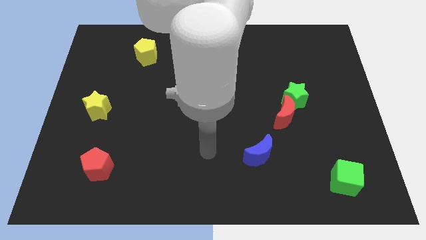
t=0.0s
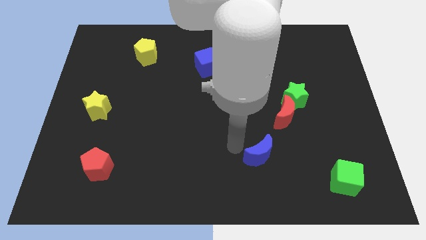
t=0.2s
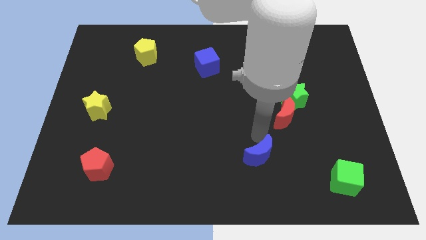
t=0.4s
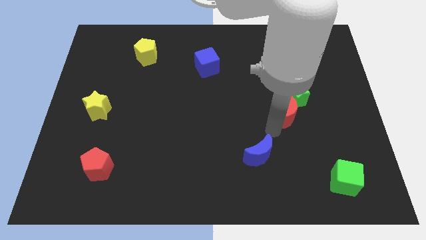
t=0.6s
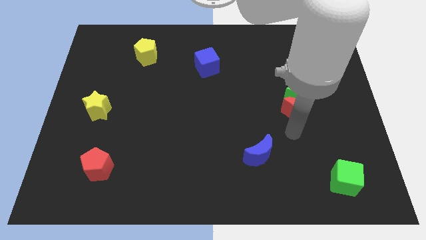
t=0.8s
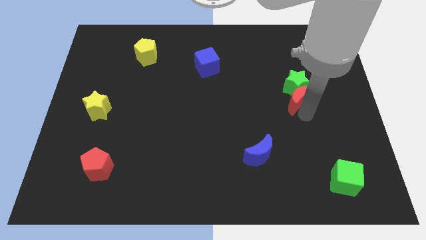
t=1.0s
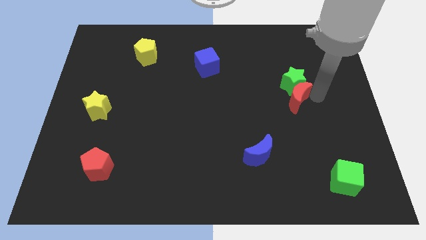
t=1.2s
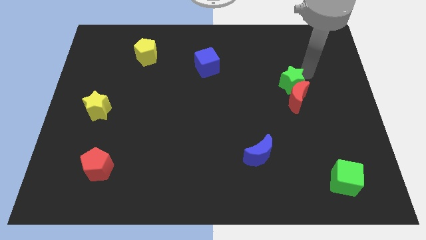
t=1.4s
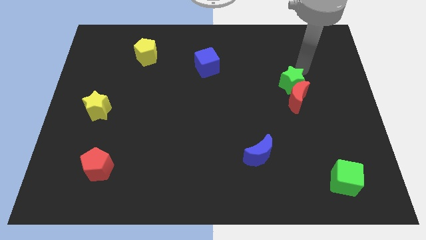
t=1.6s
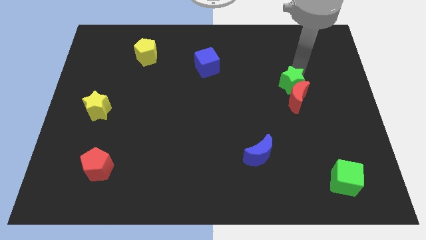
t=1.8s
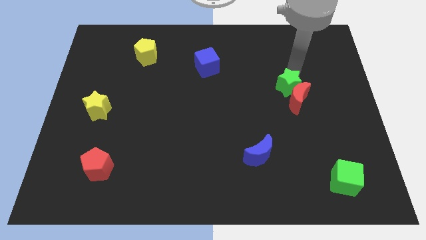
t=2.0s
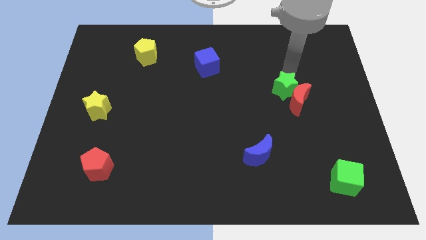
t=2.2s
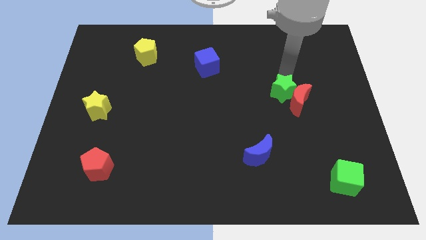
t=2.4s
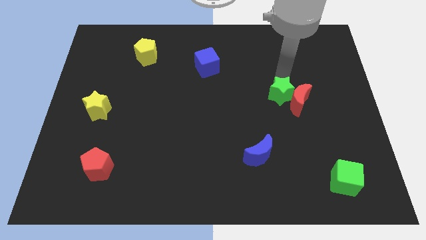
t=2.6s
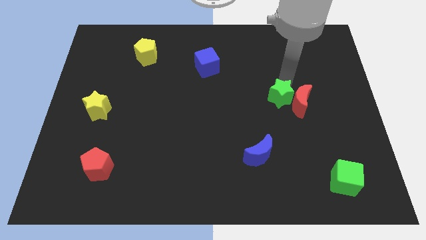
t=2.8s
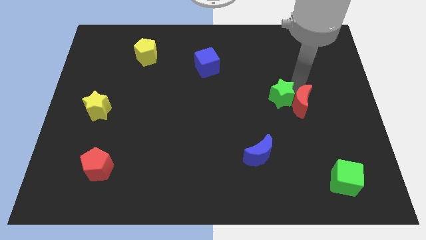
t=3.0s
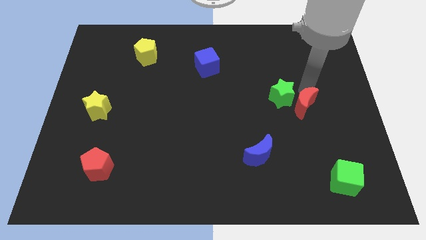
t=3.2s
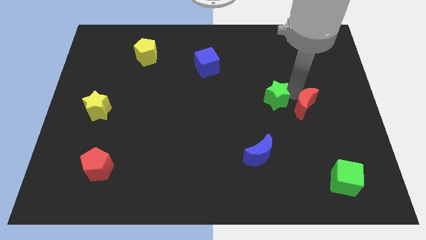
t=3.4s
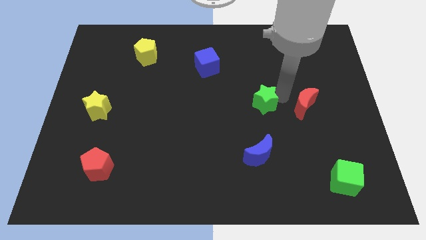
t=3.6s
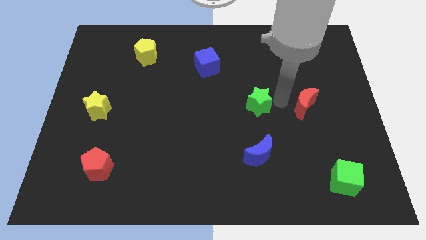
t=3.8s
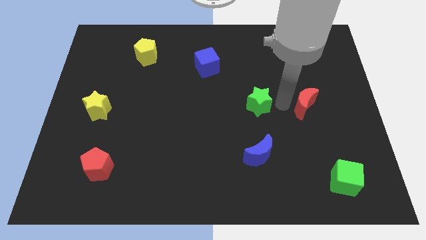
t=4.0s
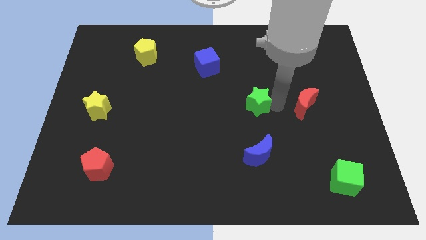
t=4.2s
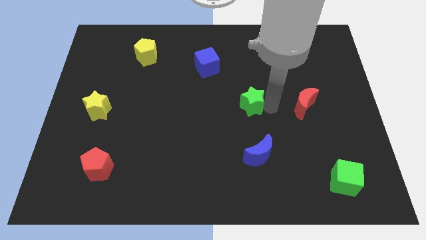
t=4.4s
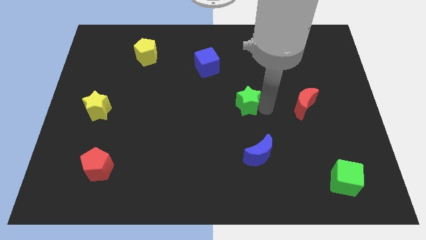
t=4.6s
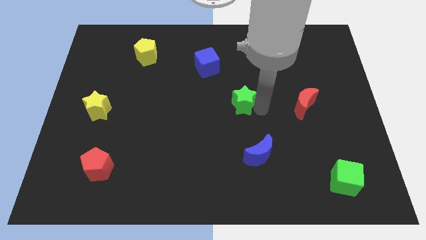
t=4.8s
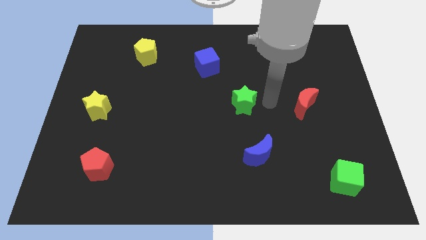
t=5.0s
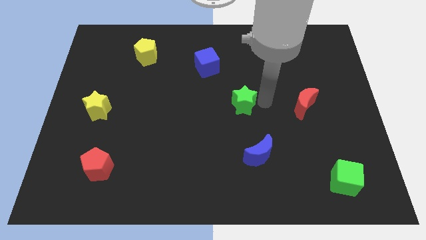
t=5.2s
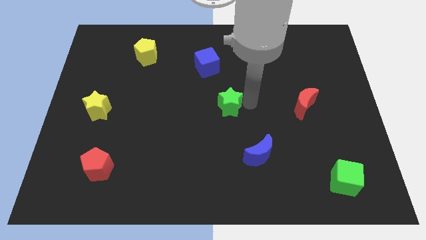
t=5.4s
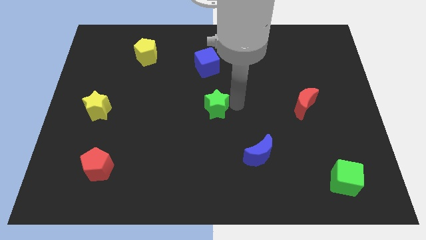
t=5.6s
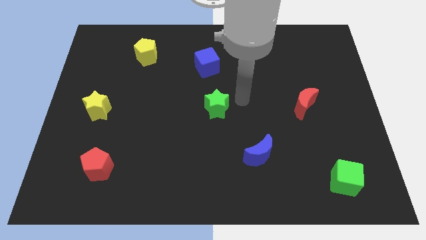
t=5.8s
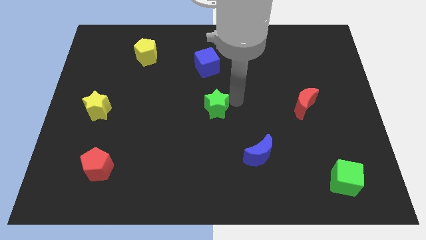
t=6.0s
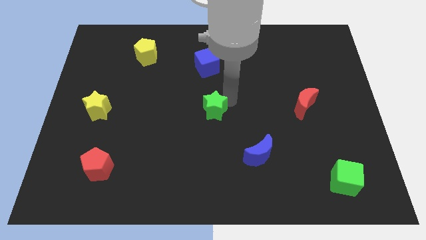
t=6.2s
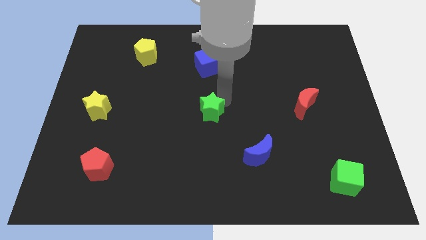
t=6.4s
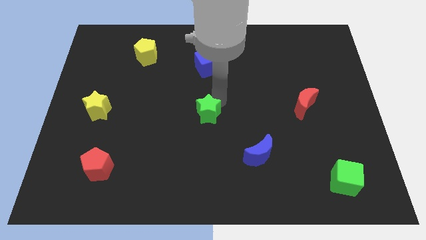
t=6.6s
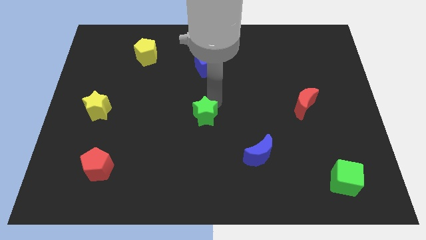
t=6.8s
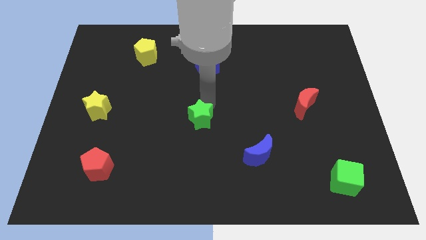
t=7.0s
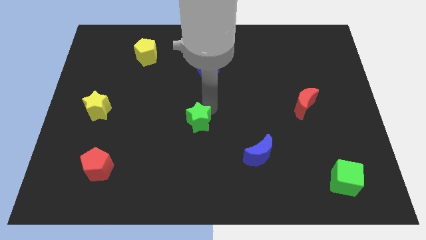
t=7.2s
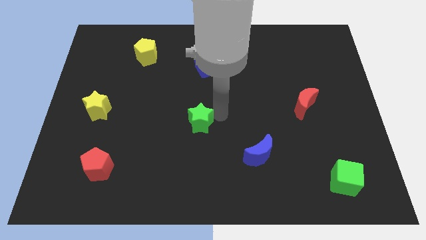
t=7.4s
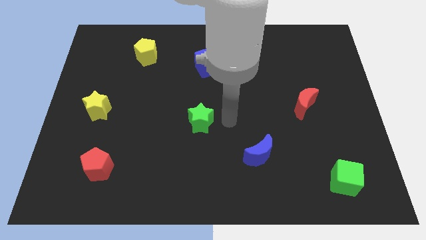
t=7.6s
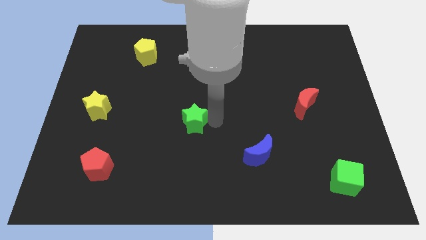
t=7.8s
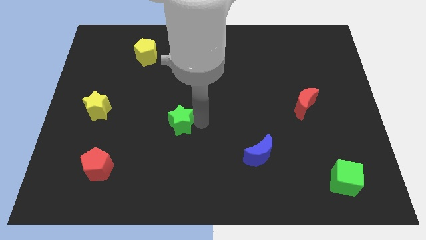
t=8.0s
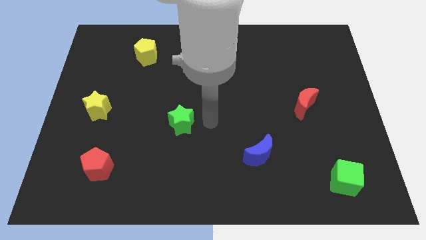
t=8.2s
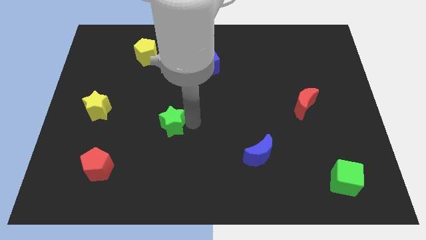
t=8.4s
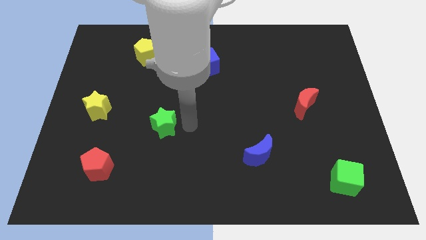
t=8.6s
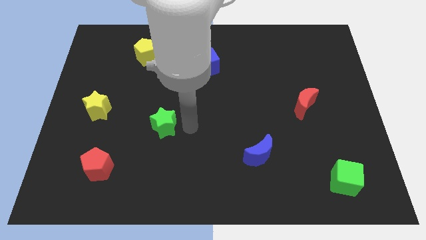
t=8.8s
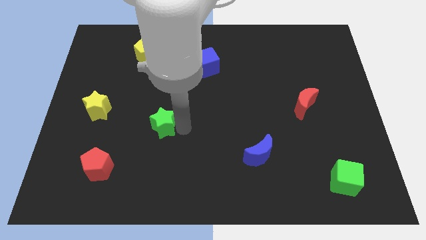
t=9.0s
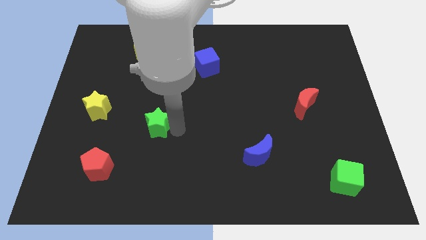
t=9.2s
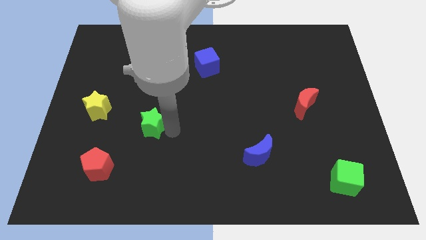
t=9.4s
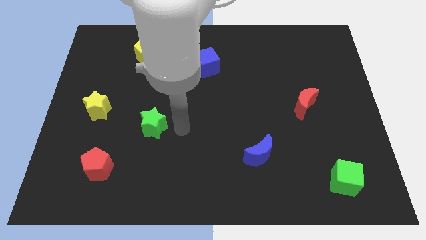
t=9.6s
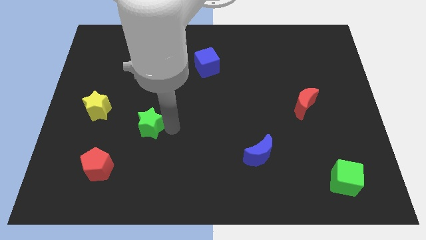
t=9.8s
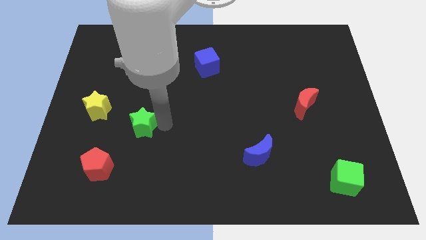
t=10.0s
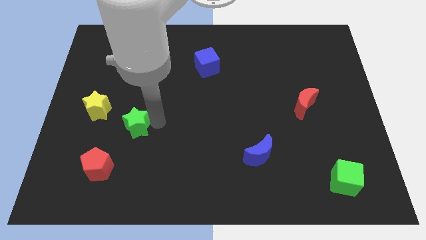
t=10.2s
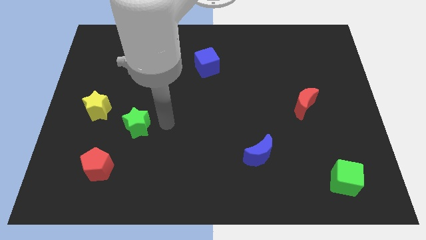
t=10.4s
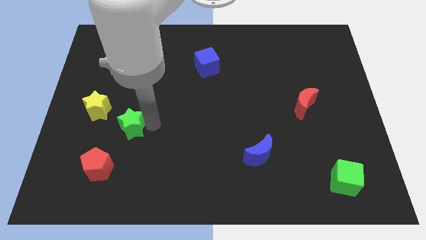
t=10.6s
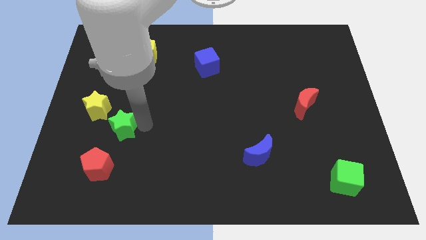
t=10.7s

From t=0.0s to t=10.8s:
push the green star to the top side of the red pentagon

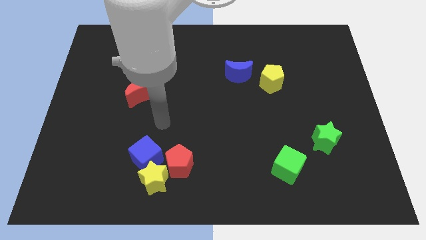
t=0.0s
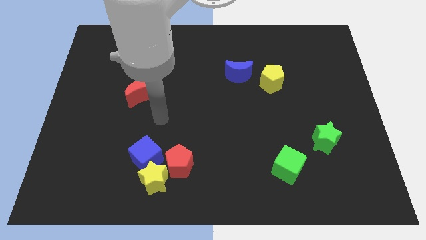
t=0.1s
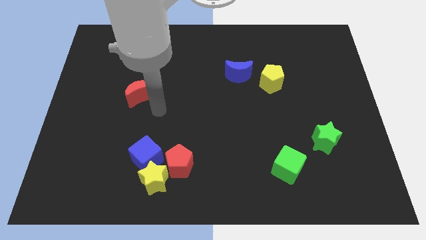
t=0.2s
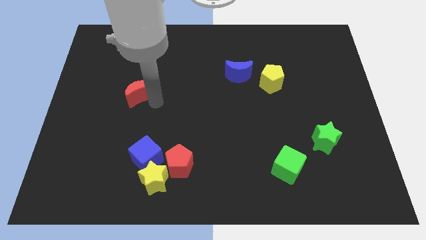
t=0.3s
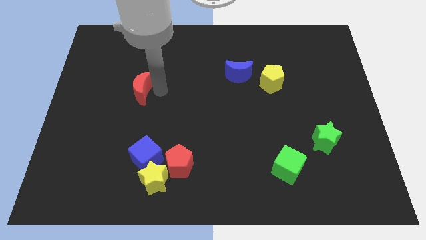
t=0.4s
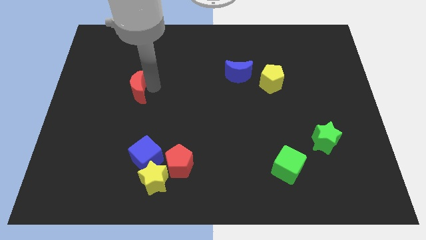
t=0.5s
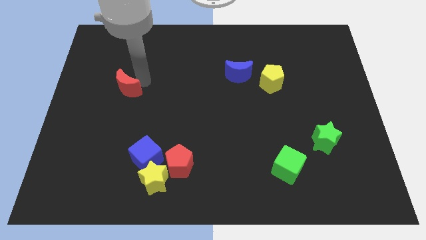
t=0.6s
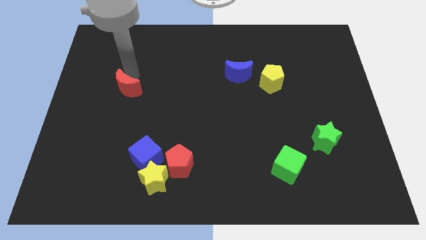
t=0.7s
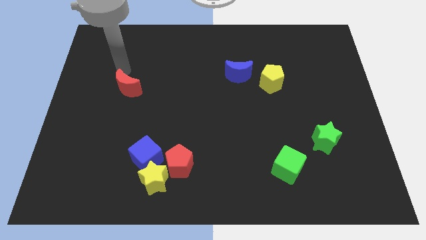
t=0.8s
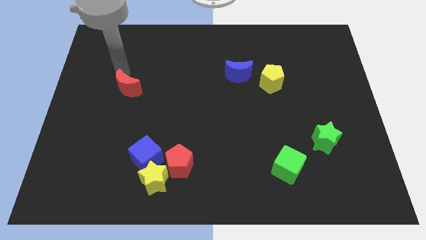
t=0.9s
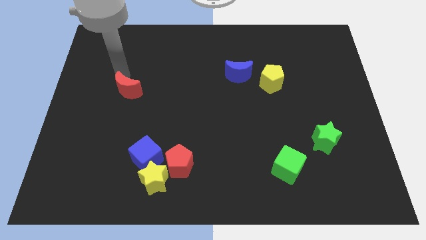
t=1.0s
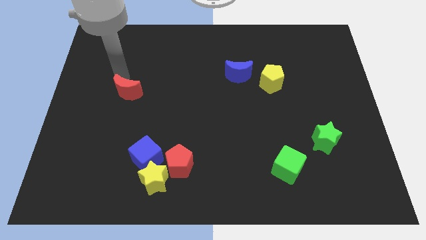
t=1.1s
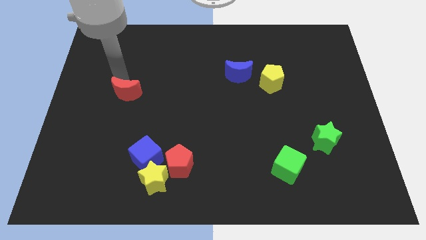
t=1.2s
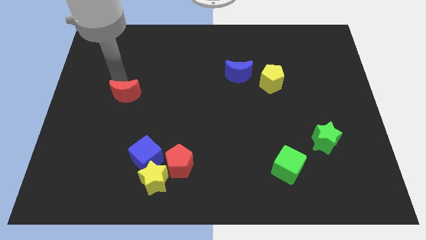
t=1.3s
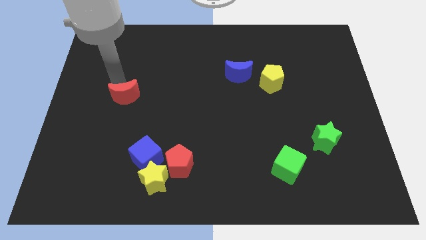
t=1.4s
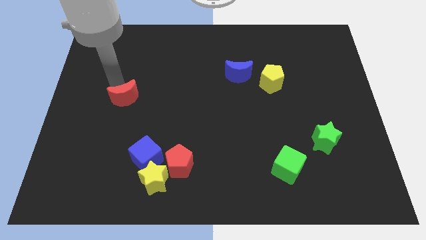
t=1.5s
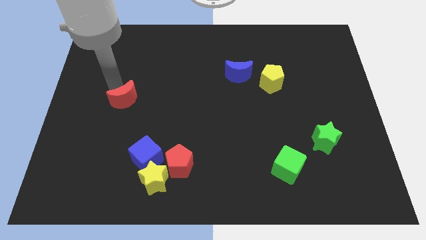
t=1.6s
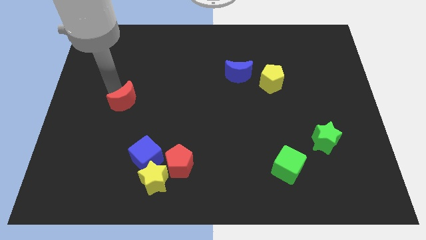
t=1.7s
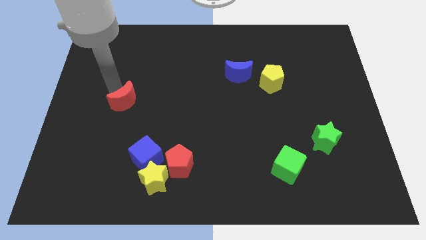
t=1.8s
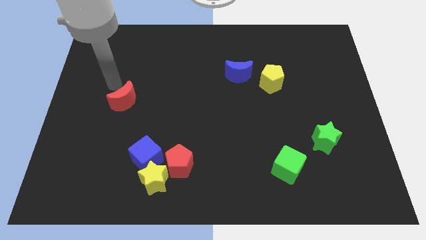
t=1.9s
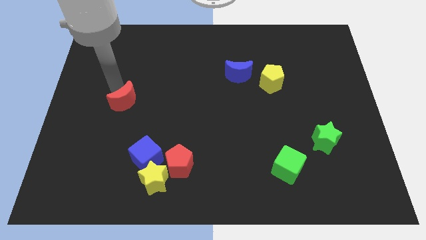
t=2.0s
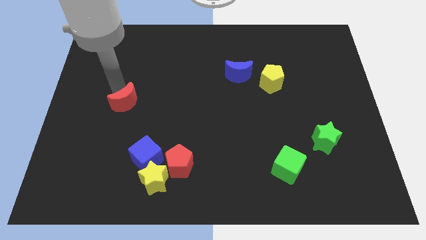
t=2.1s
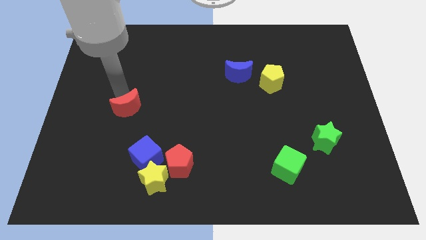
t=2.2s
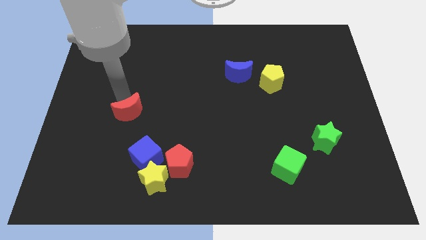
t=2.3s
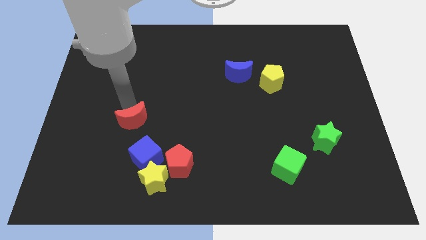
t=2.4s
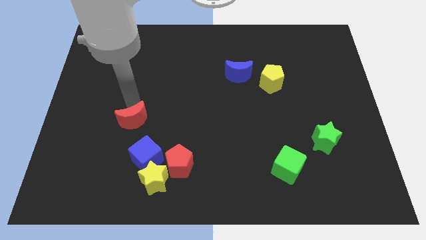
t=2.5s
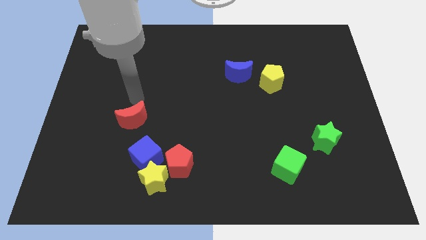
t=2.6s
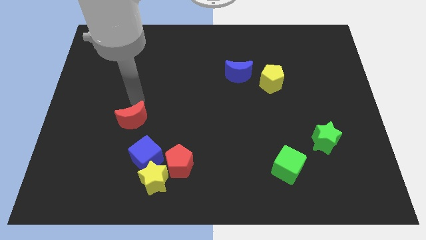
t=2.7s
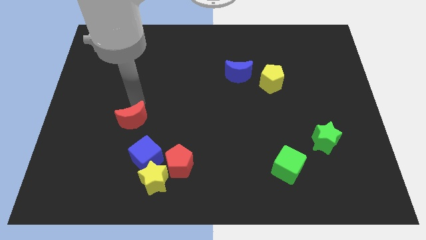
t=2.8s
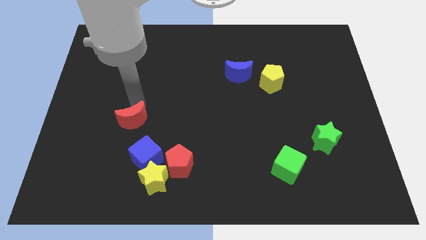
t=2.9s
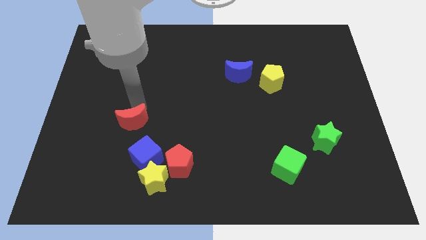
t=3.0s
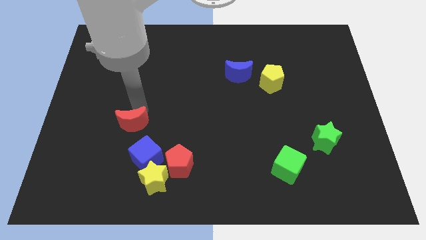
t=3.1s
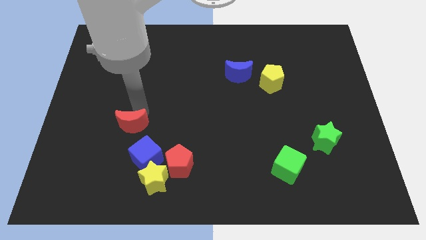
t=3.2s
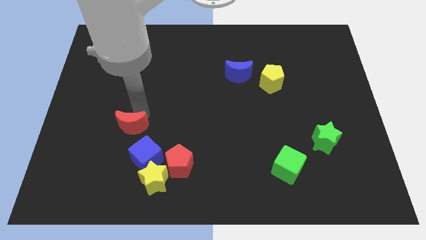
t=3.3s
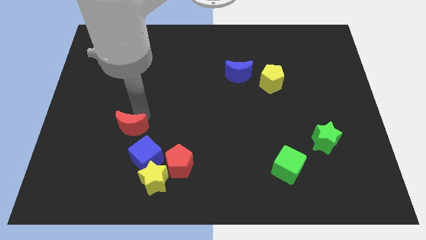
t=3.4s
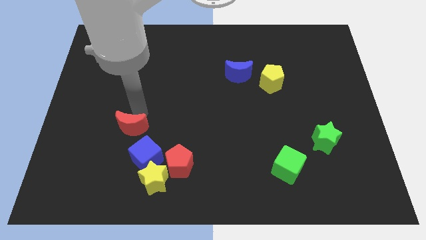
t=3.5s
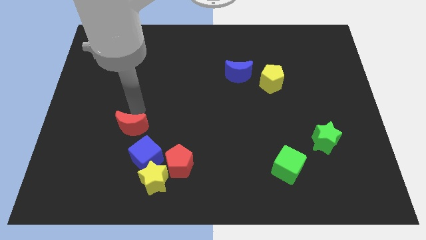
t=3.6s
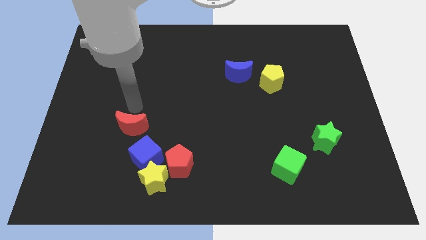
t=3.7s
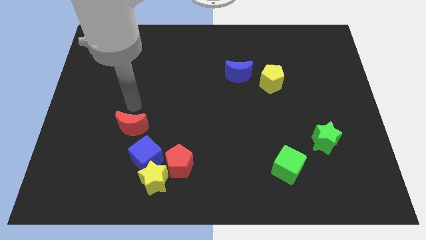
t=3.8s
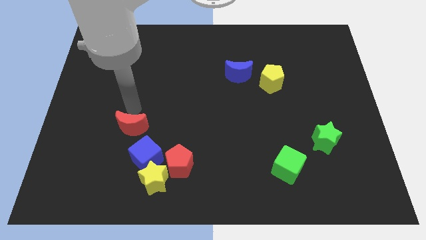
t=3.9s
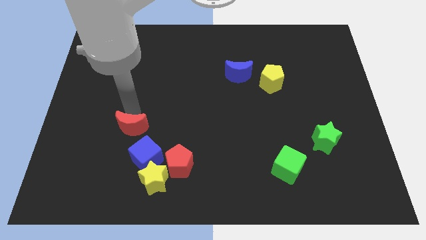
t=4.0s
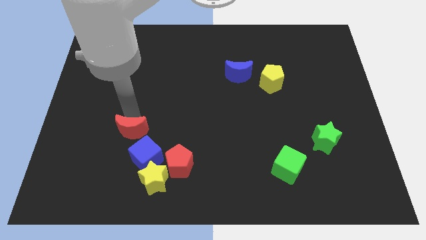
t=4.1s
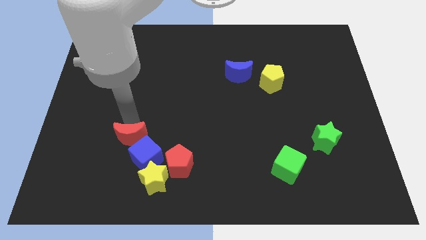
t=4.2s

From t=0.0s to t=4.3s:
slide the red moon to the top left of the yellow star
